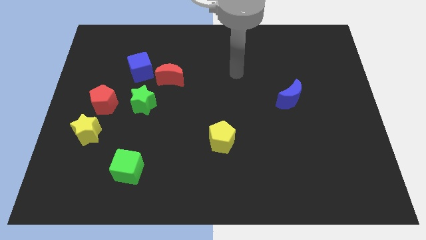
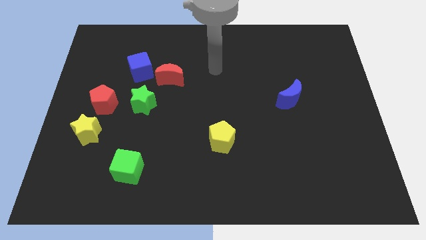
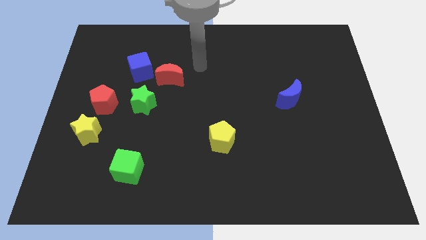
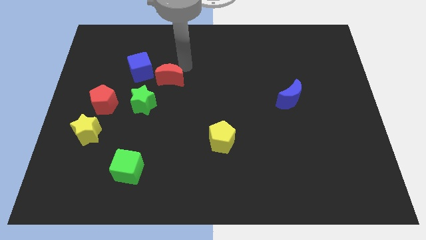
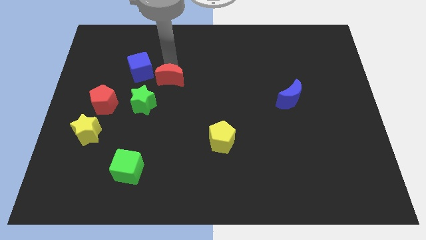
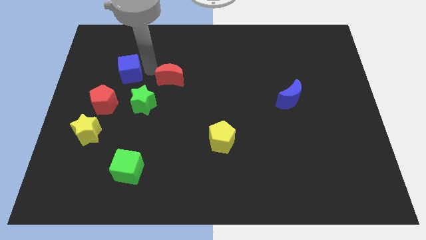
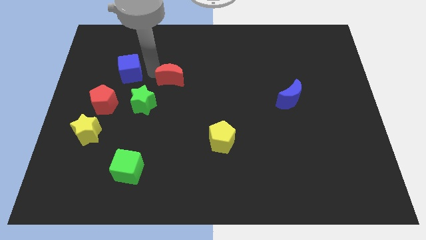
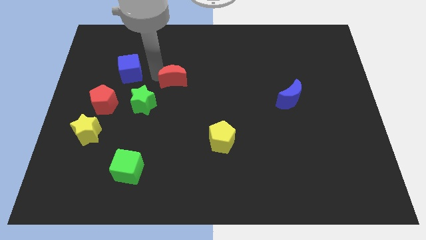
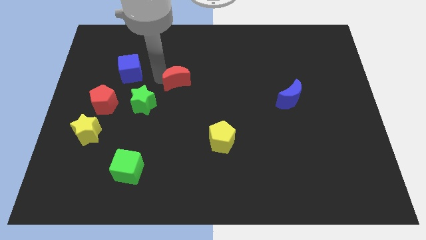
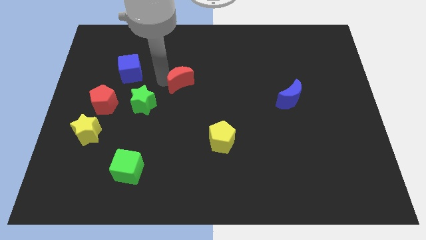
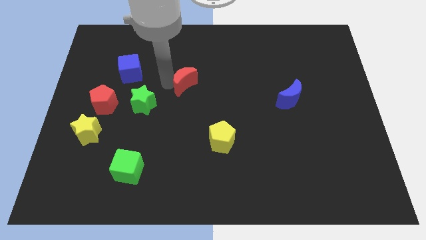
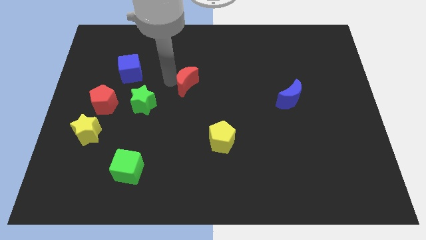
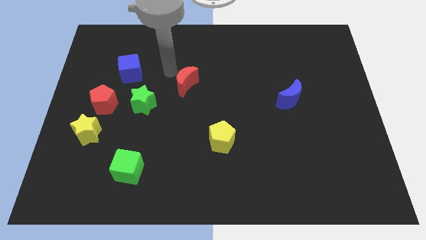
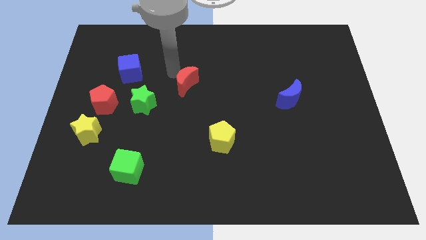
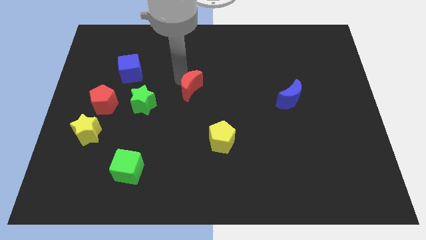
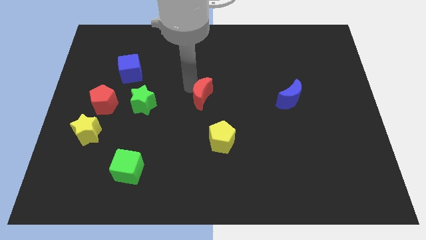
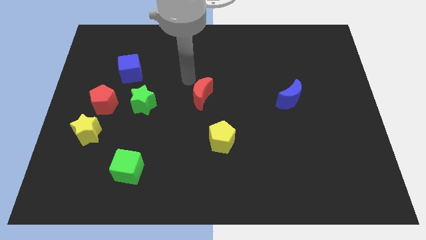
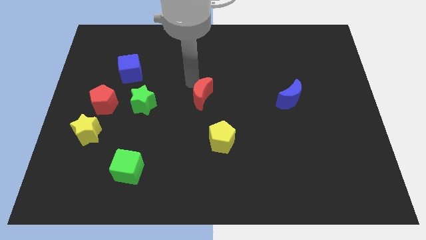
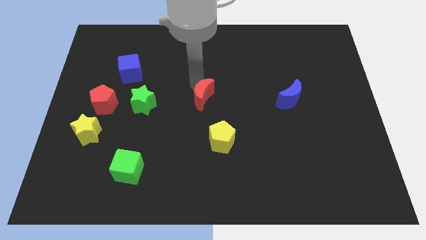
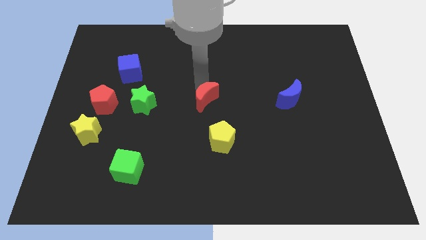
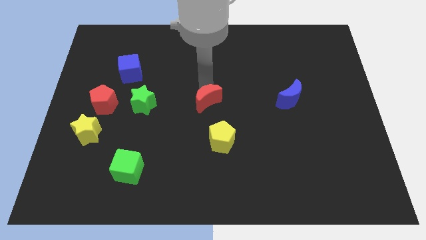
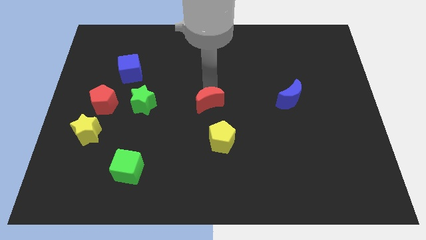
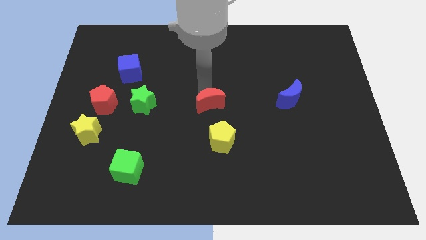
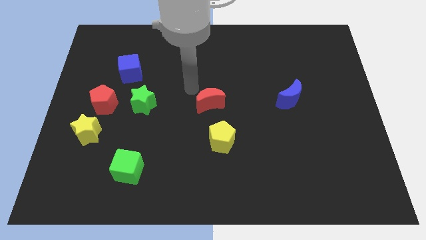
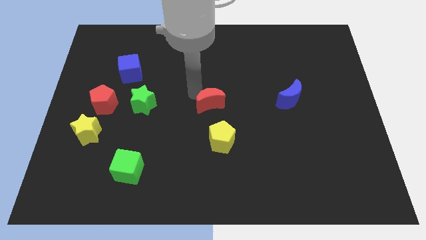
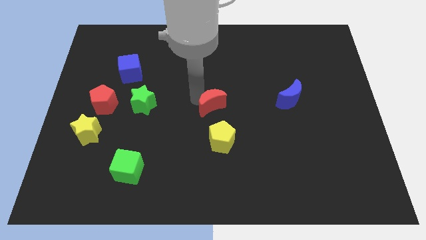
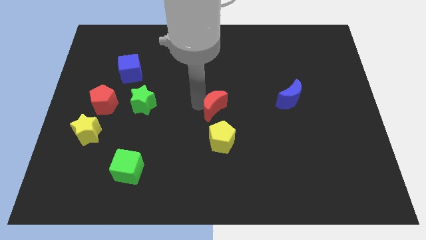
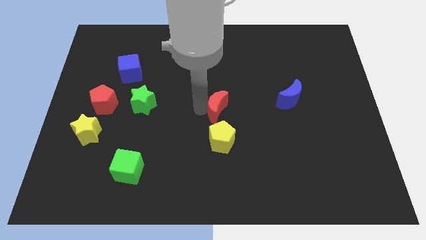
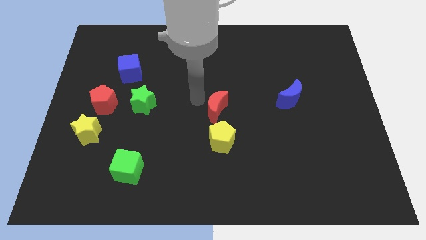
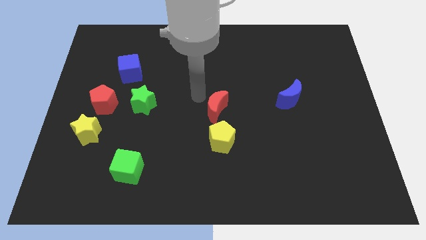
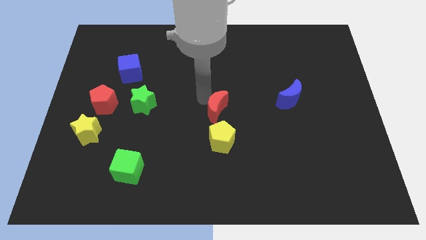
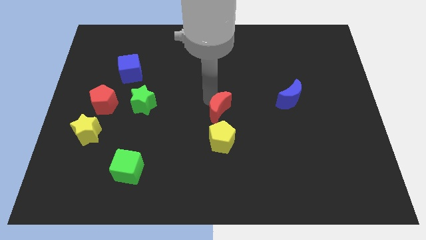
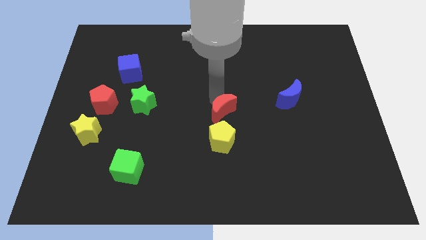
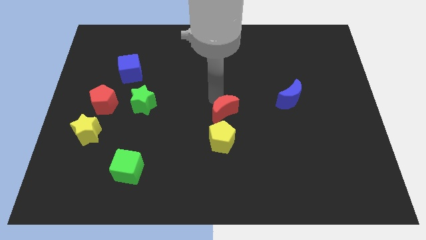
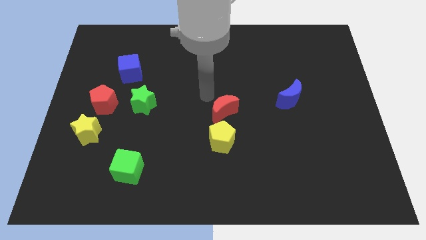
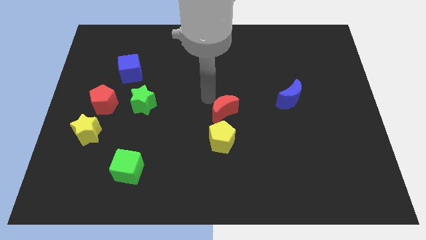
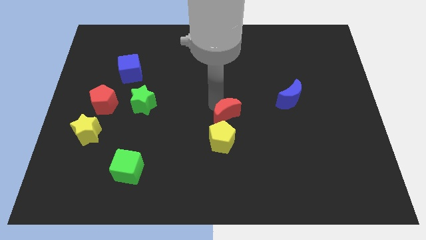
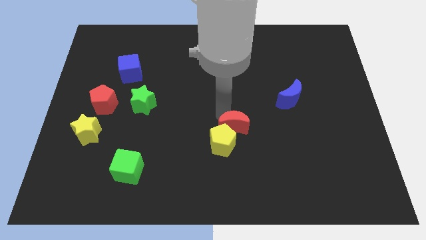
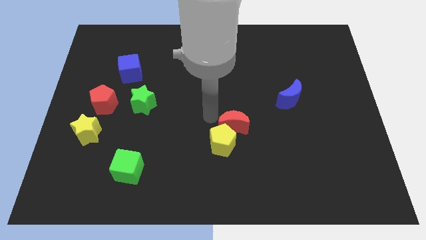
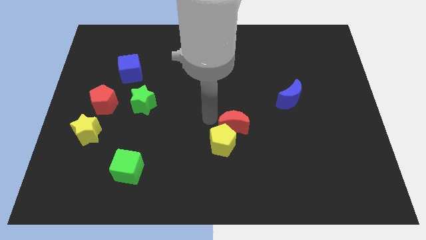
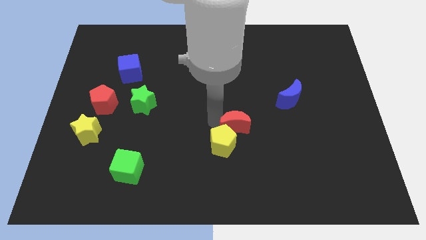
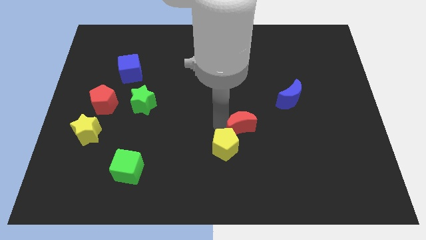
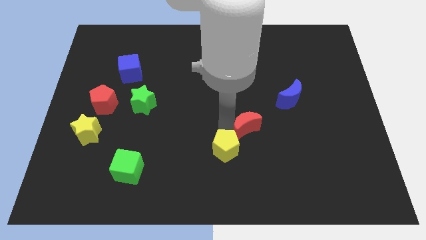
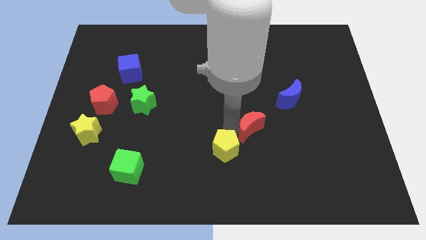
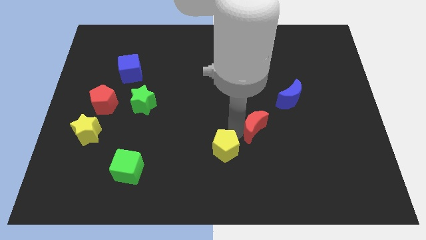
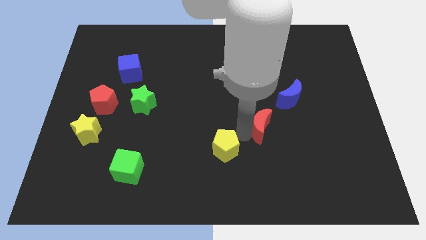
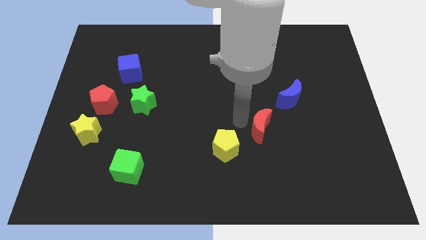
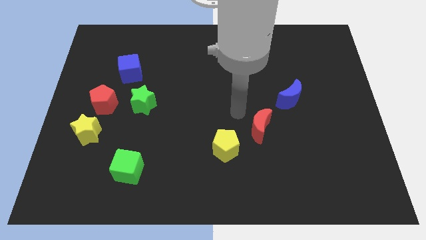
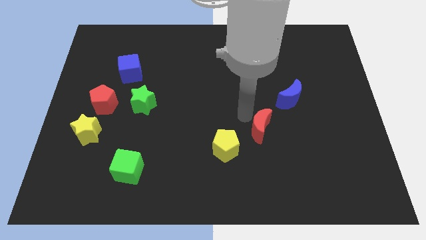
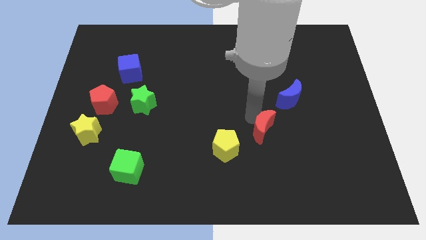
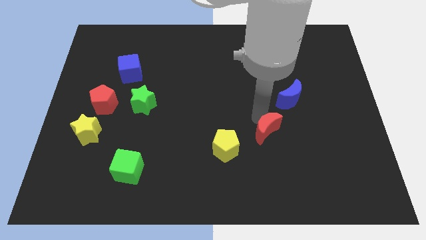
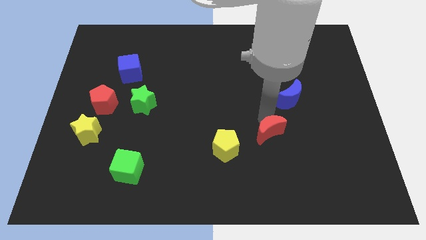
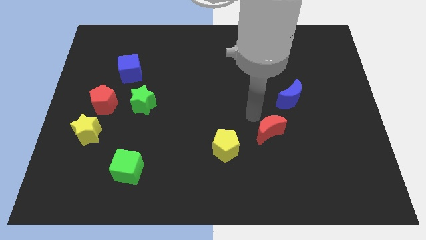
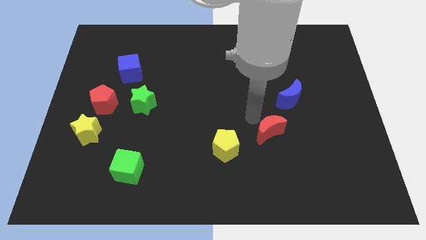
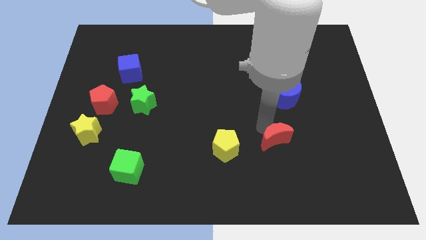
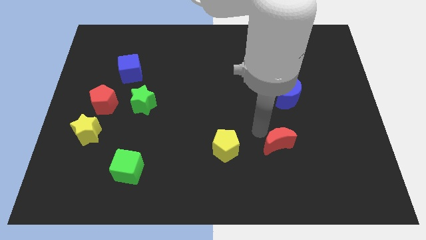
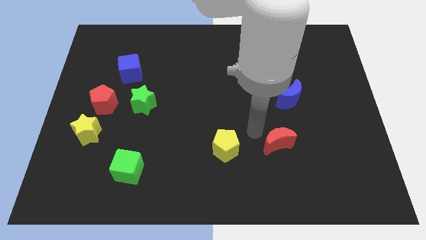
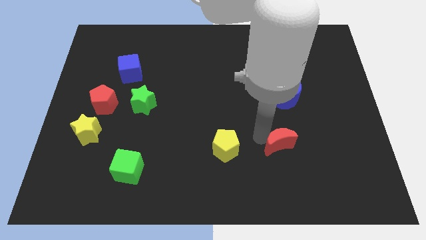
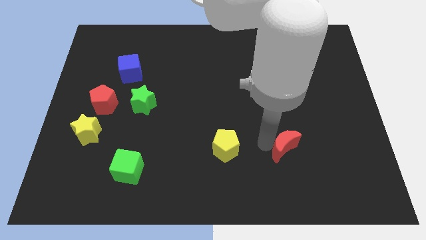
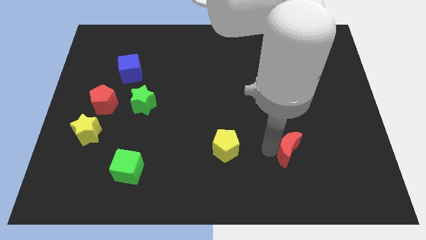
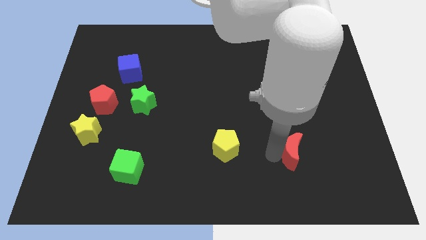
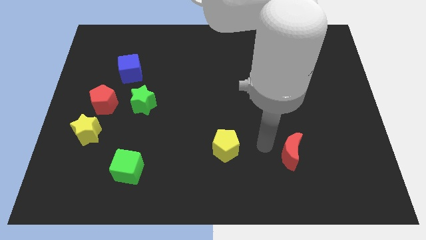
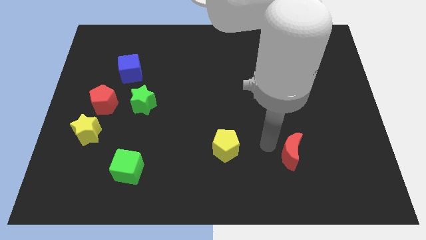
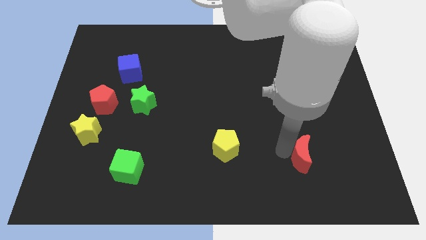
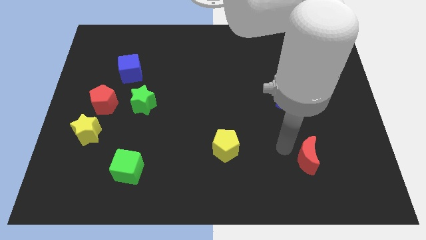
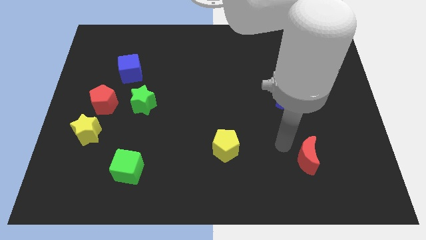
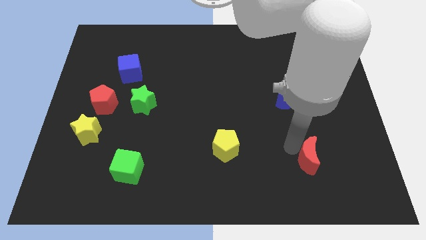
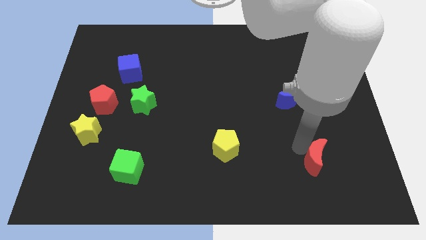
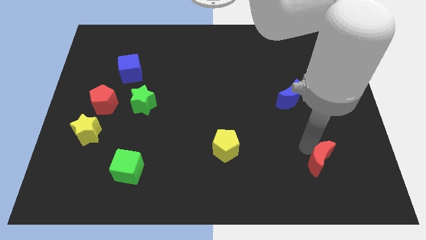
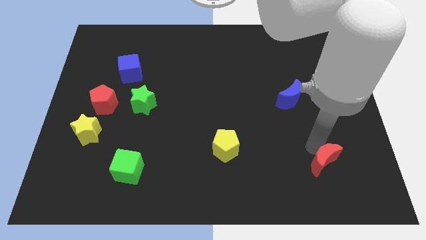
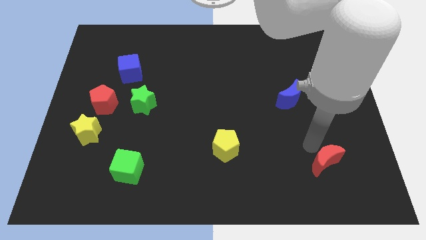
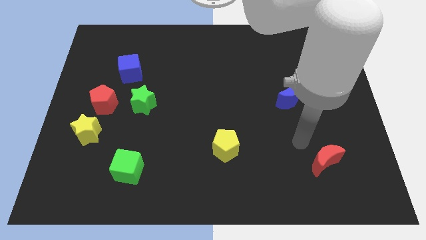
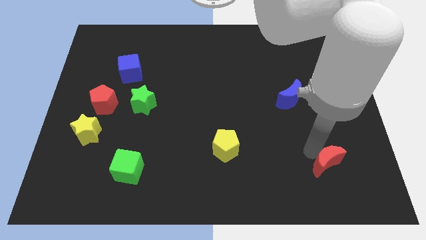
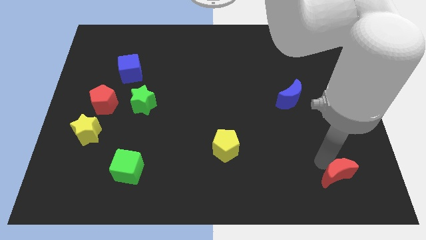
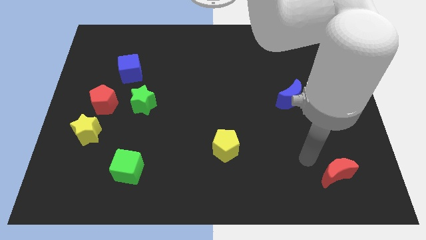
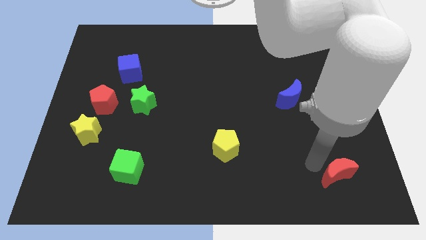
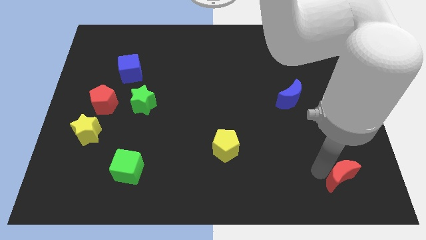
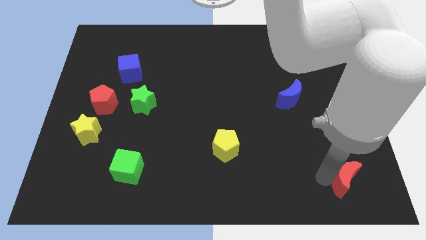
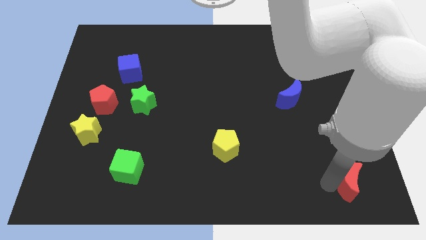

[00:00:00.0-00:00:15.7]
push the red moon to the bottom right of the board
